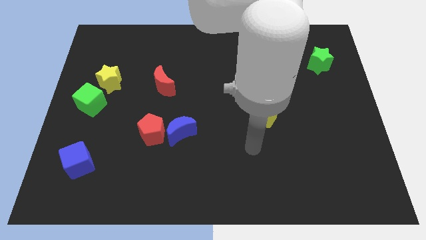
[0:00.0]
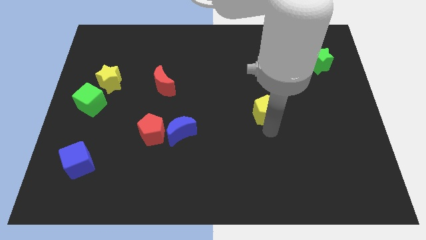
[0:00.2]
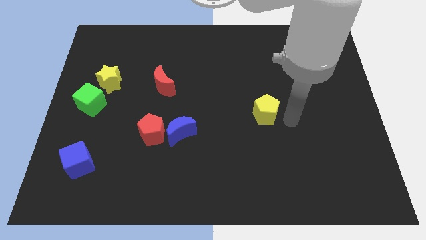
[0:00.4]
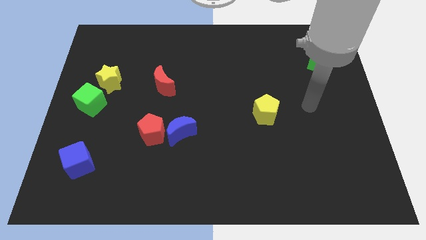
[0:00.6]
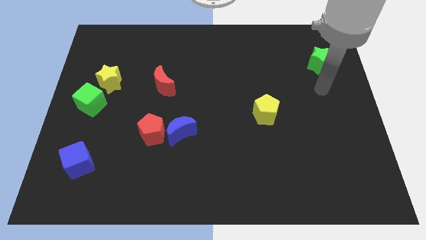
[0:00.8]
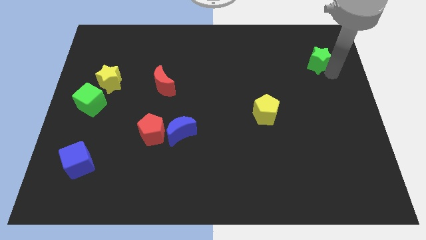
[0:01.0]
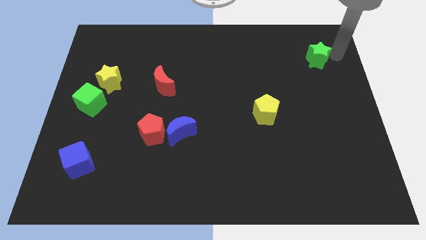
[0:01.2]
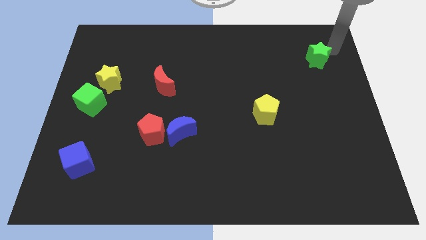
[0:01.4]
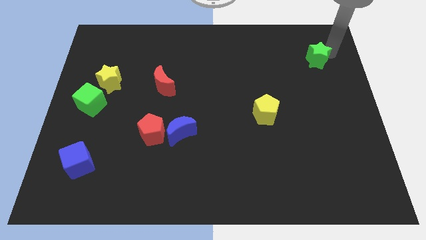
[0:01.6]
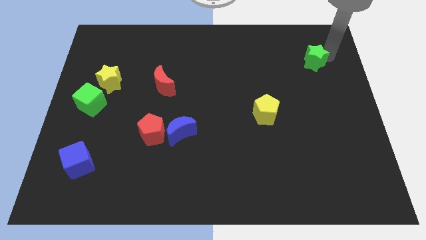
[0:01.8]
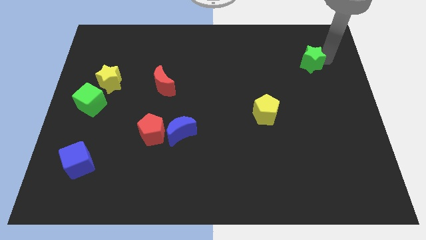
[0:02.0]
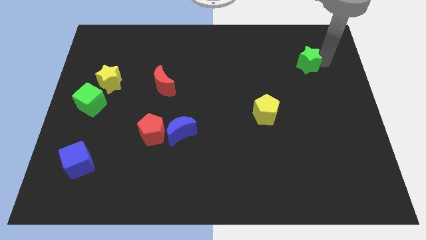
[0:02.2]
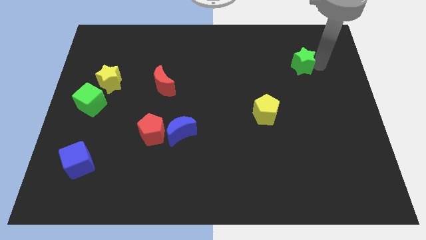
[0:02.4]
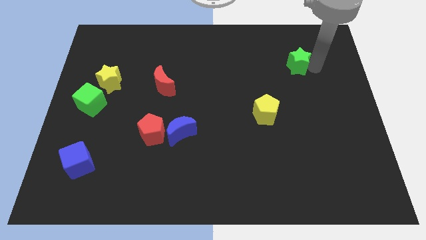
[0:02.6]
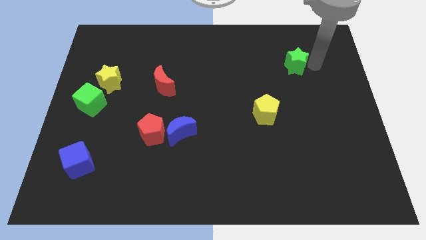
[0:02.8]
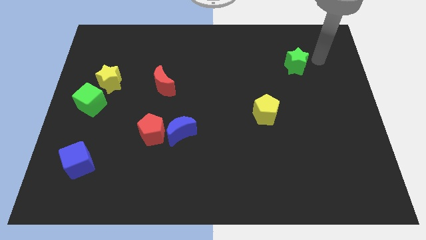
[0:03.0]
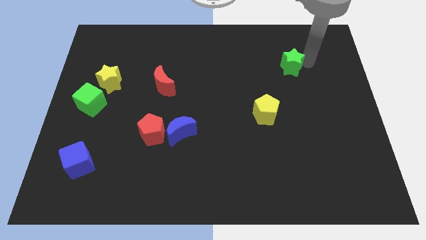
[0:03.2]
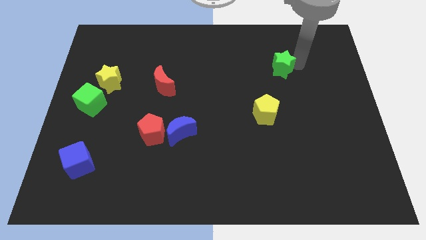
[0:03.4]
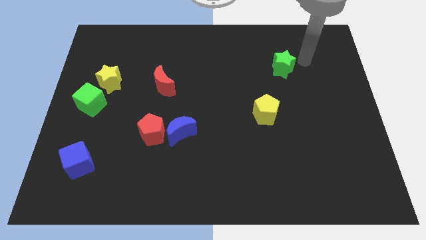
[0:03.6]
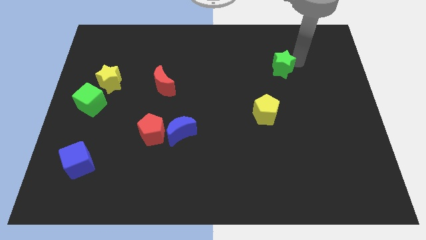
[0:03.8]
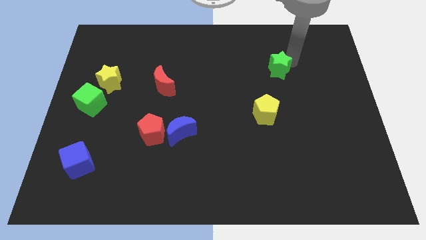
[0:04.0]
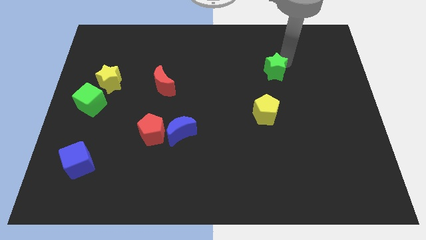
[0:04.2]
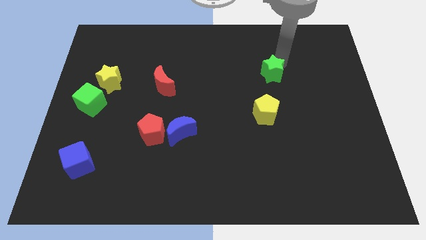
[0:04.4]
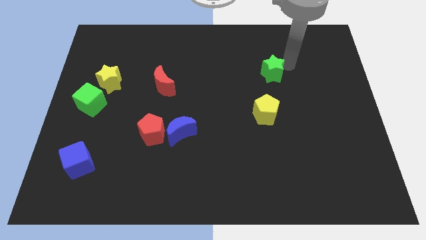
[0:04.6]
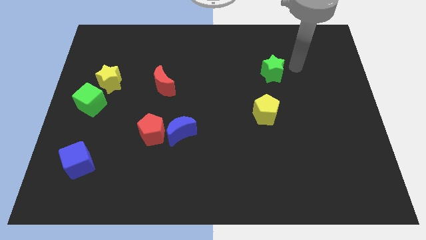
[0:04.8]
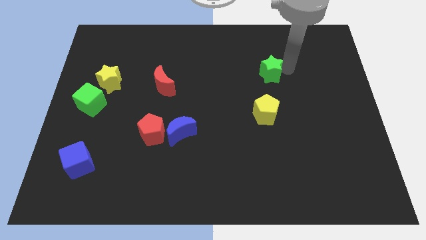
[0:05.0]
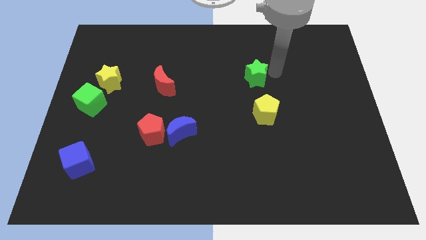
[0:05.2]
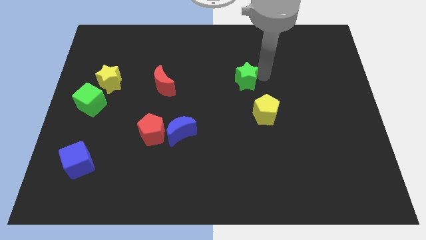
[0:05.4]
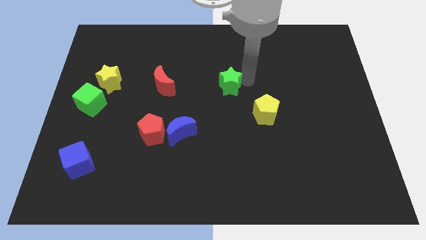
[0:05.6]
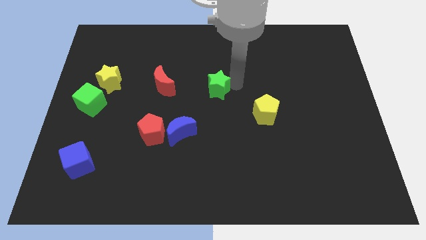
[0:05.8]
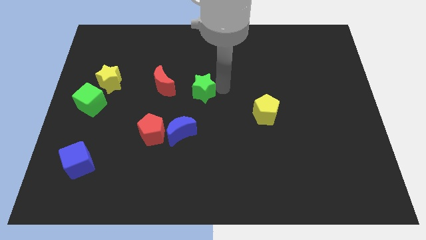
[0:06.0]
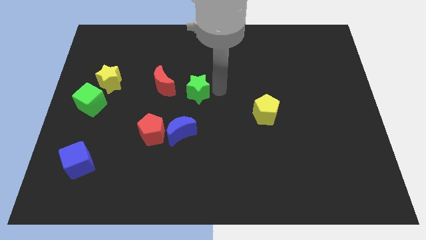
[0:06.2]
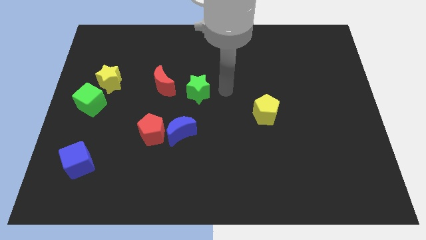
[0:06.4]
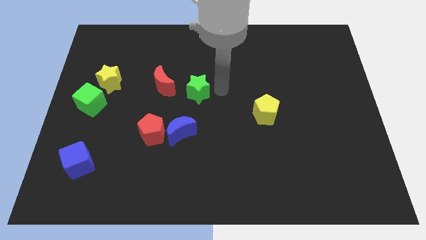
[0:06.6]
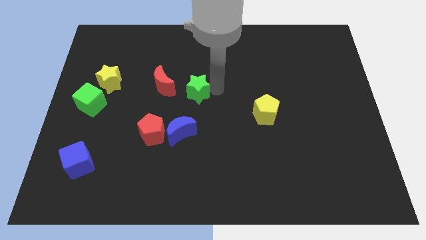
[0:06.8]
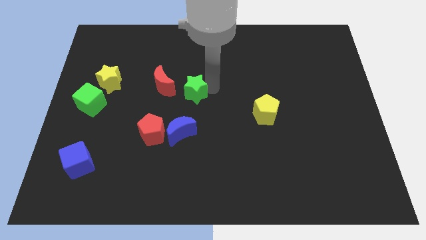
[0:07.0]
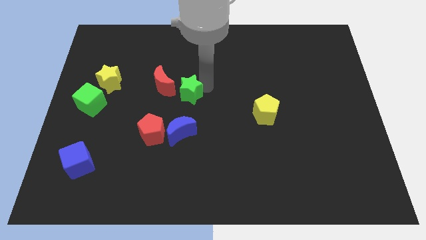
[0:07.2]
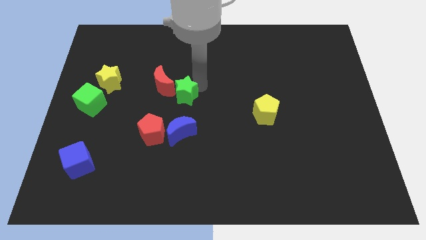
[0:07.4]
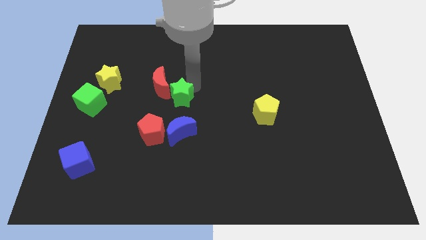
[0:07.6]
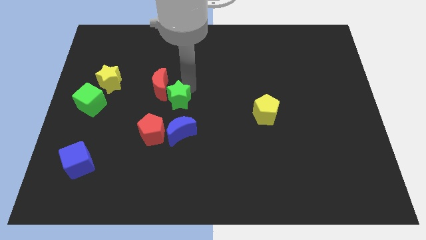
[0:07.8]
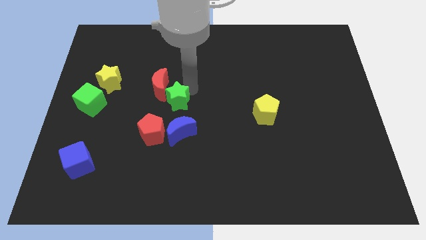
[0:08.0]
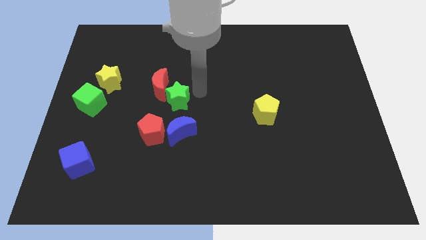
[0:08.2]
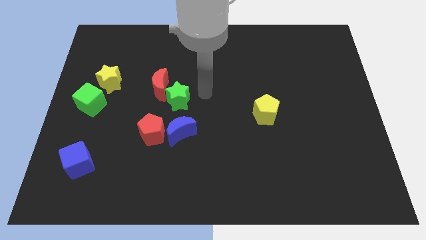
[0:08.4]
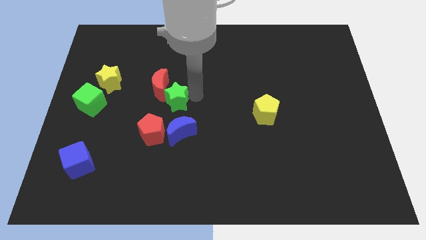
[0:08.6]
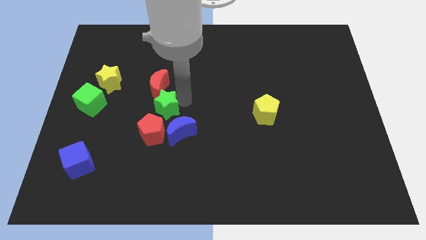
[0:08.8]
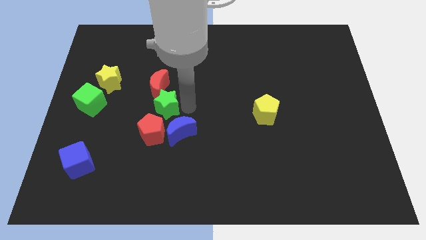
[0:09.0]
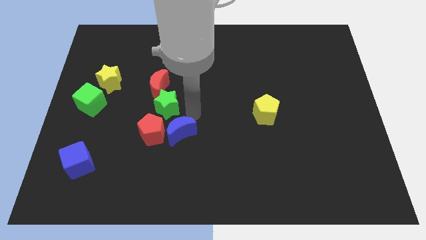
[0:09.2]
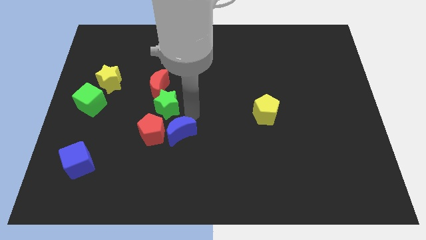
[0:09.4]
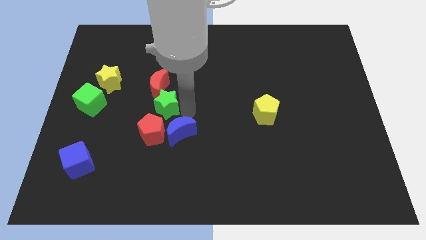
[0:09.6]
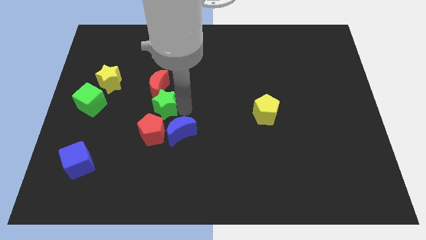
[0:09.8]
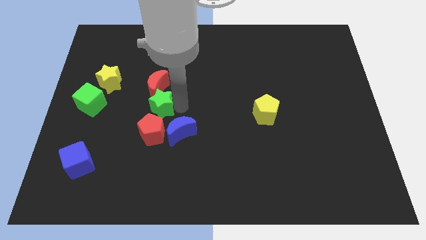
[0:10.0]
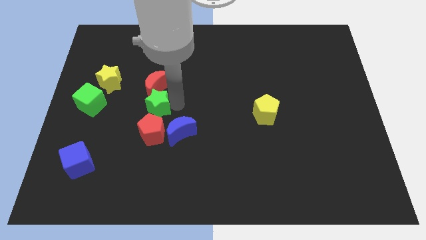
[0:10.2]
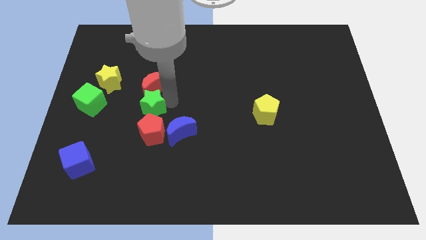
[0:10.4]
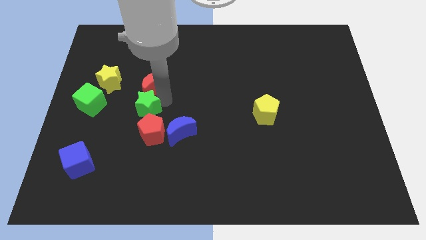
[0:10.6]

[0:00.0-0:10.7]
move the green star to the bottom right of the yellow star
